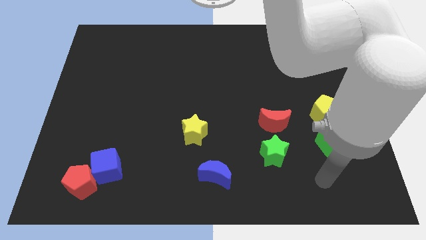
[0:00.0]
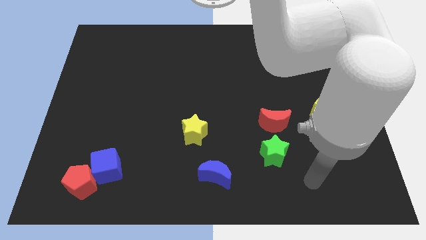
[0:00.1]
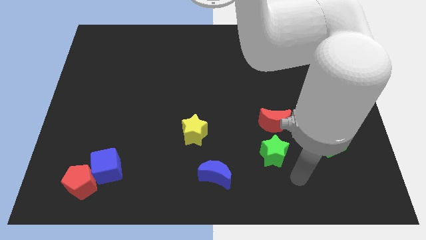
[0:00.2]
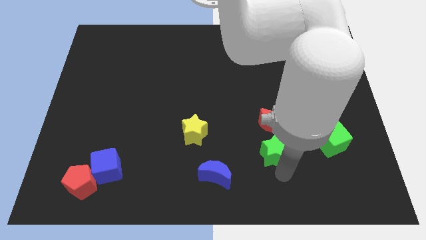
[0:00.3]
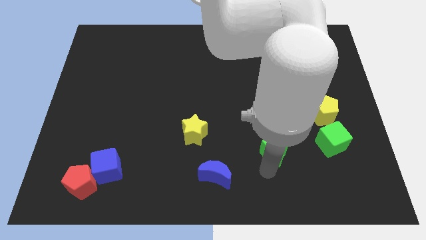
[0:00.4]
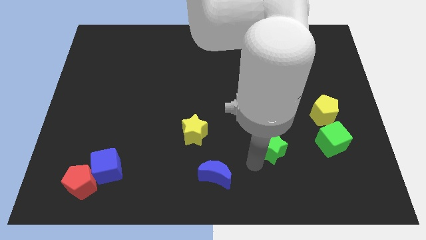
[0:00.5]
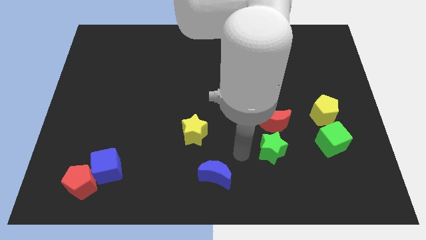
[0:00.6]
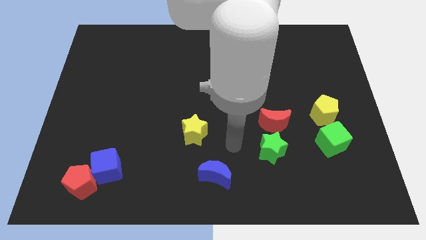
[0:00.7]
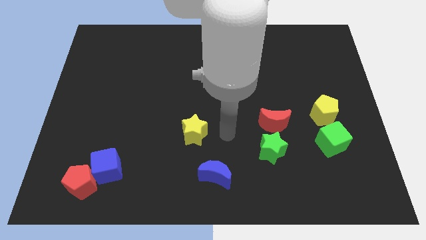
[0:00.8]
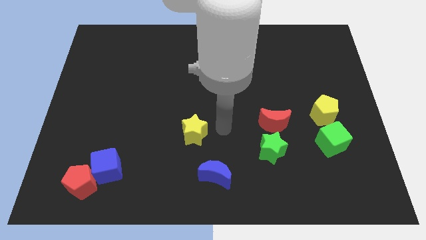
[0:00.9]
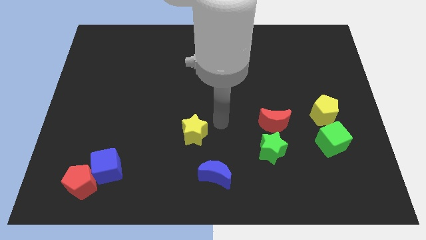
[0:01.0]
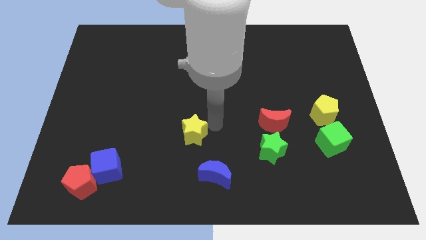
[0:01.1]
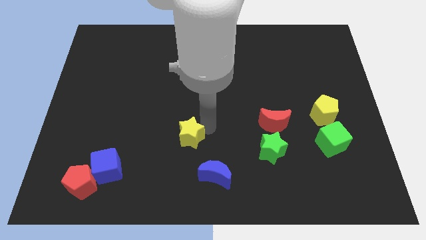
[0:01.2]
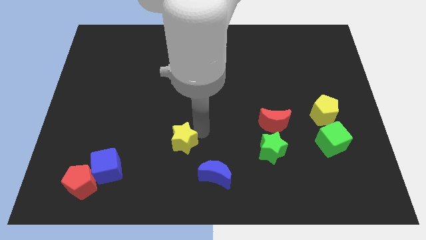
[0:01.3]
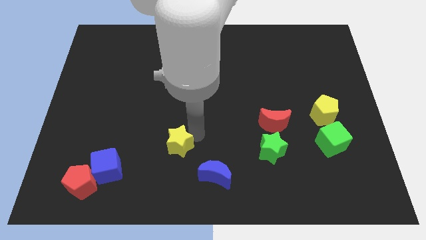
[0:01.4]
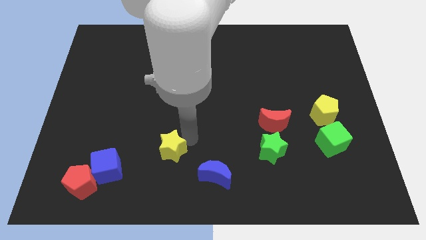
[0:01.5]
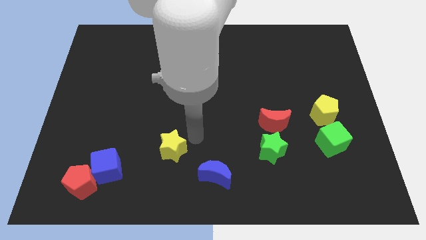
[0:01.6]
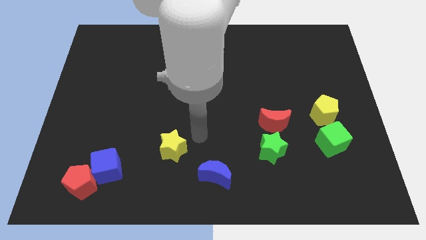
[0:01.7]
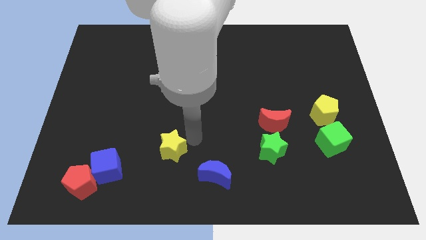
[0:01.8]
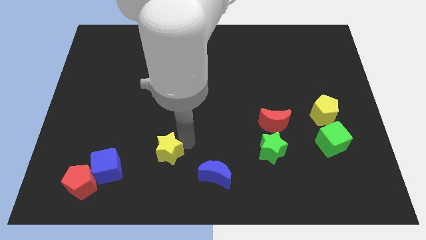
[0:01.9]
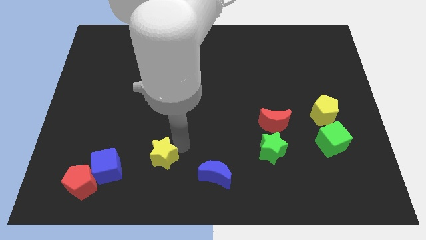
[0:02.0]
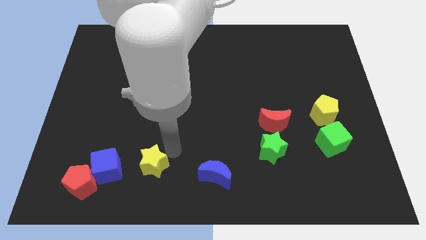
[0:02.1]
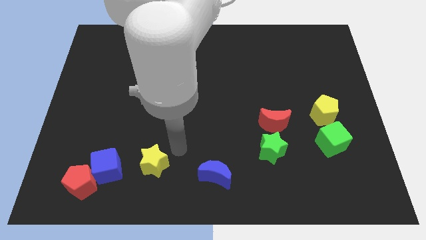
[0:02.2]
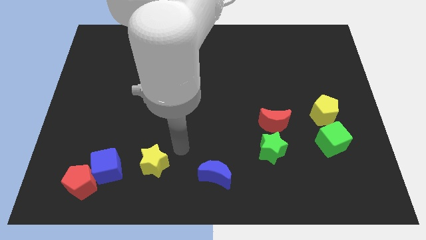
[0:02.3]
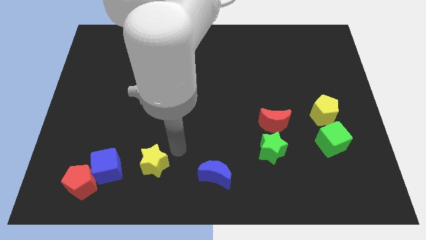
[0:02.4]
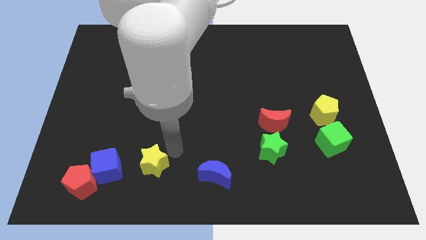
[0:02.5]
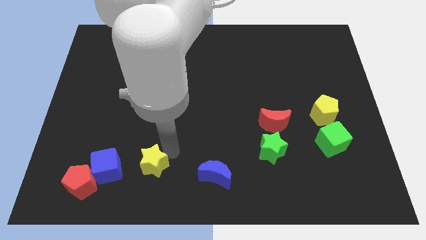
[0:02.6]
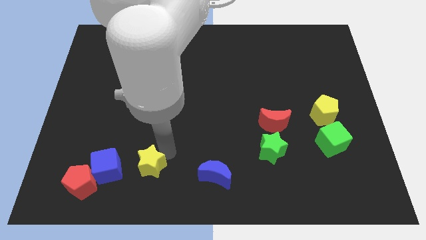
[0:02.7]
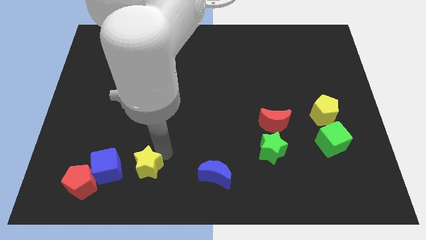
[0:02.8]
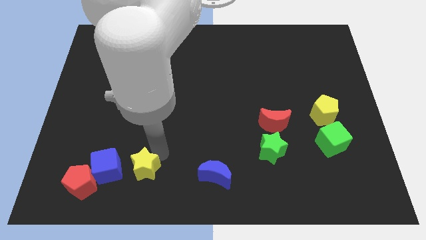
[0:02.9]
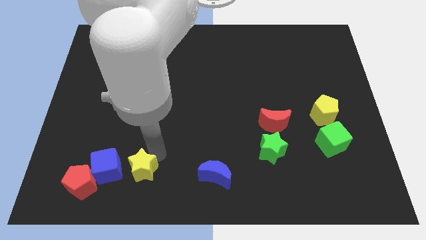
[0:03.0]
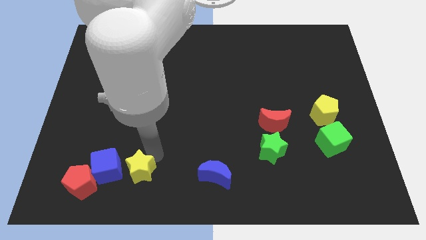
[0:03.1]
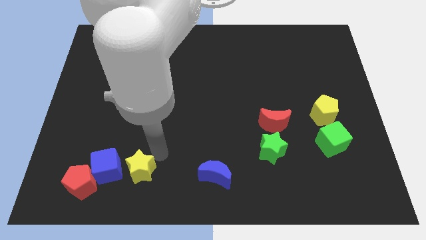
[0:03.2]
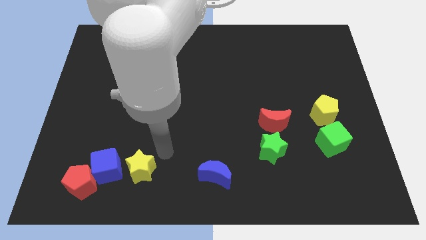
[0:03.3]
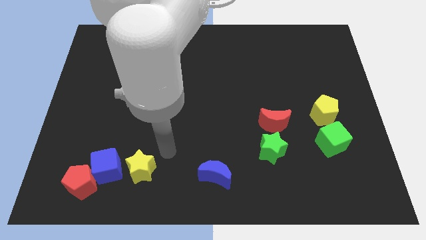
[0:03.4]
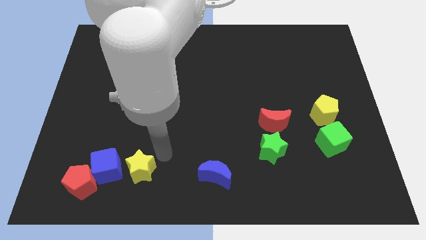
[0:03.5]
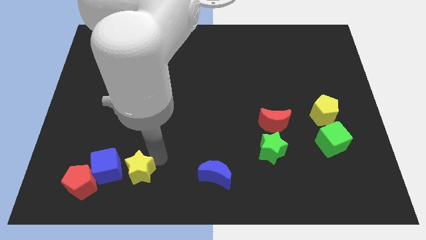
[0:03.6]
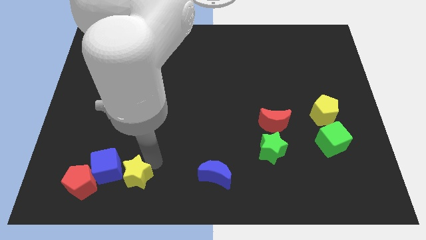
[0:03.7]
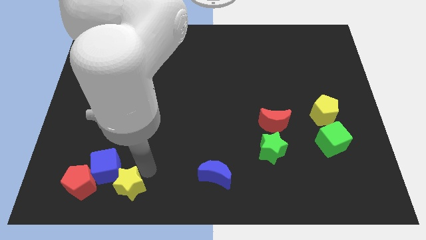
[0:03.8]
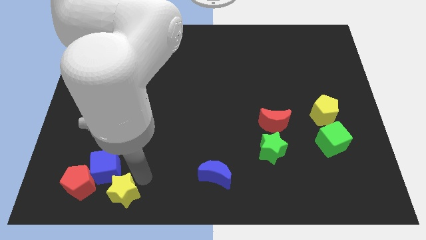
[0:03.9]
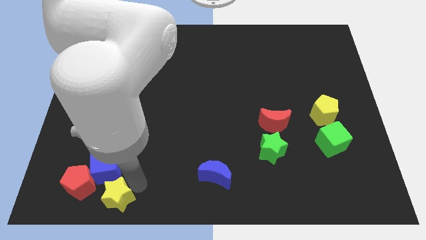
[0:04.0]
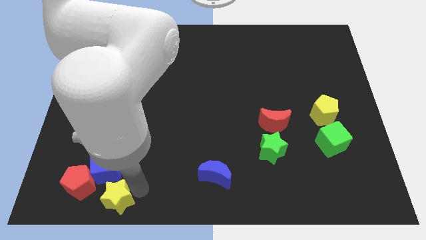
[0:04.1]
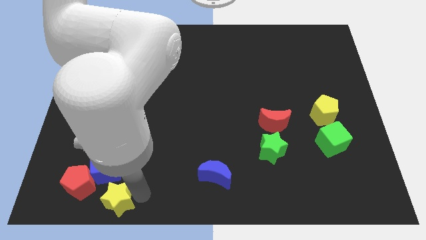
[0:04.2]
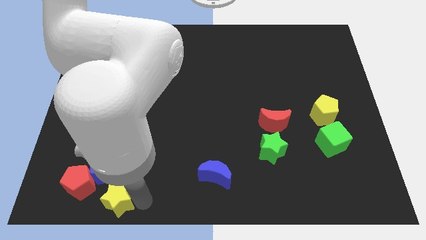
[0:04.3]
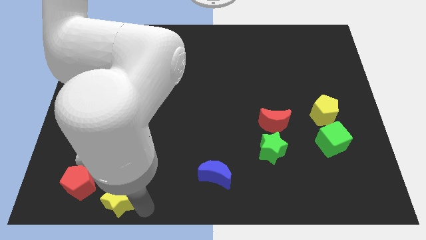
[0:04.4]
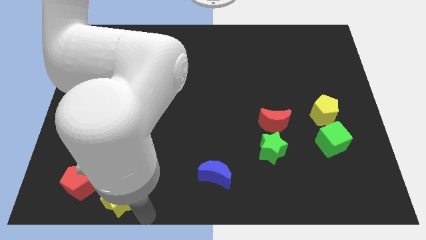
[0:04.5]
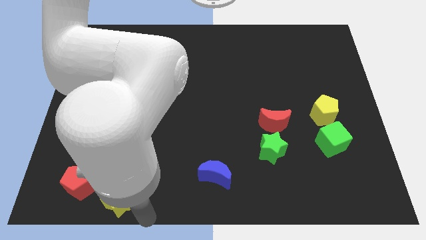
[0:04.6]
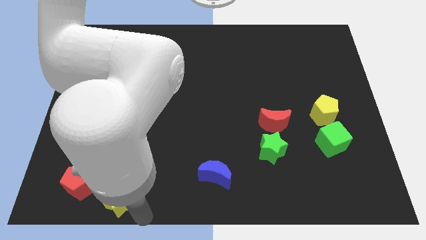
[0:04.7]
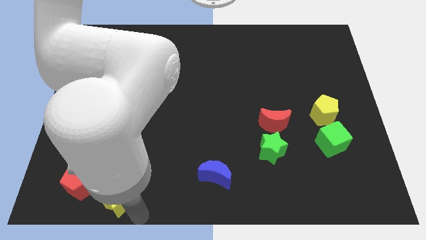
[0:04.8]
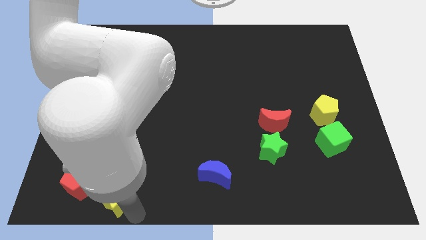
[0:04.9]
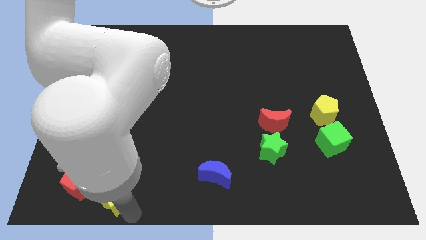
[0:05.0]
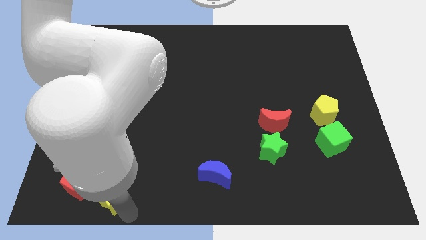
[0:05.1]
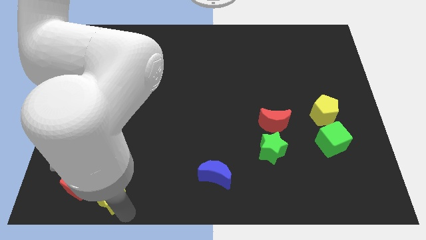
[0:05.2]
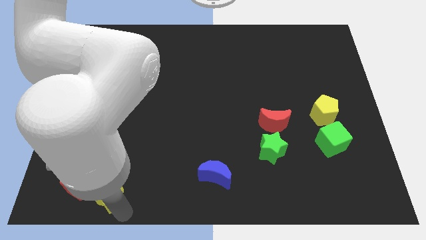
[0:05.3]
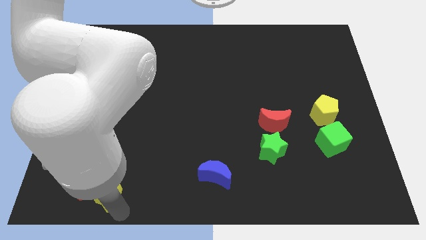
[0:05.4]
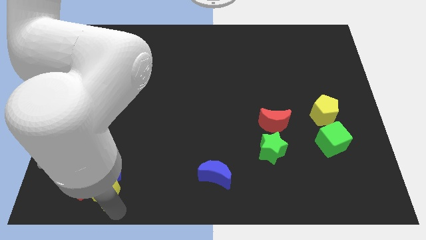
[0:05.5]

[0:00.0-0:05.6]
move the yellow star next to the red pentagon

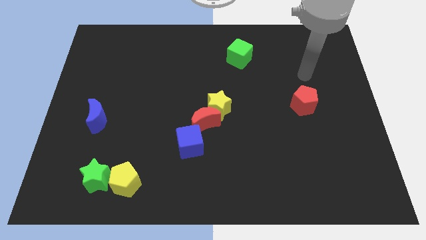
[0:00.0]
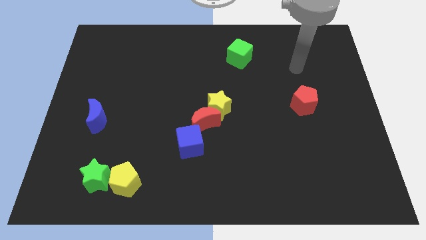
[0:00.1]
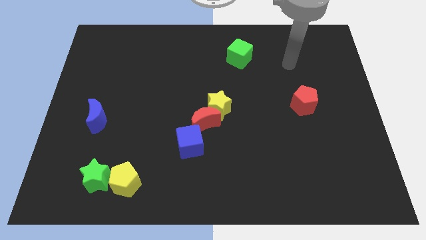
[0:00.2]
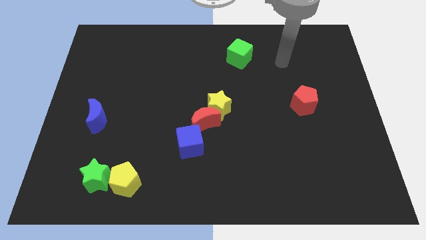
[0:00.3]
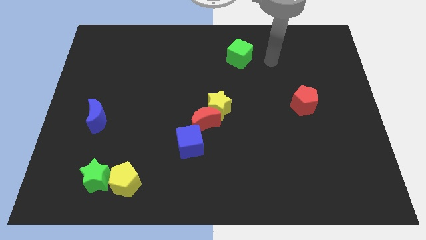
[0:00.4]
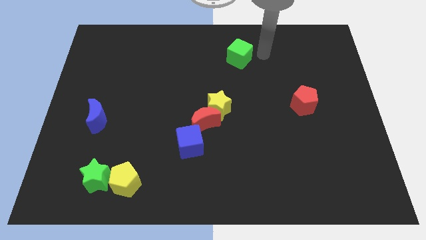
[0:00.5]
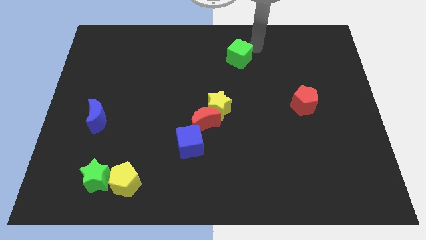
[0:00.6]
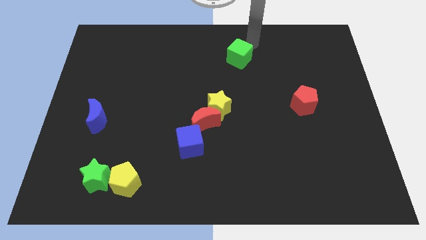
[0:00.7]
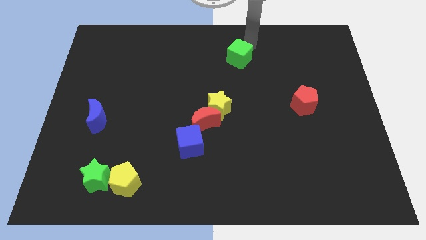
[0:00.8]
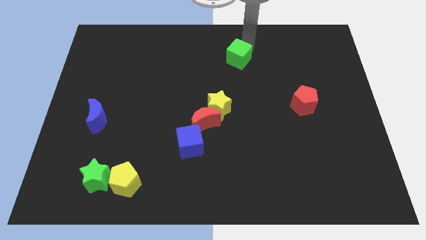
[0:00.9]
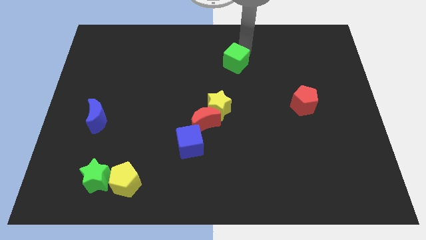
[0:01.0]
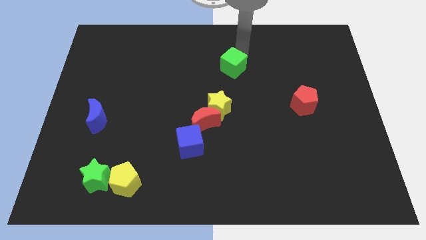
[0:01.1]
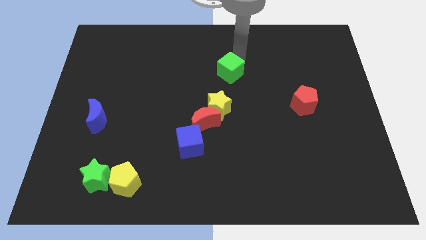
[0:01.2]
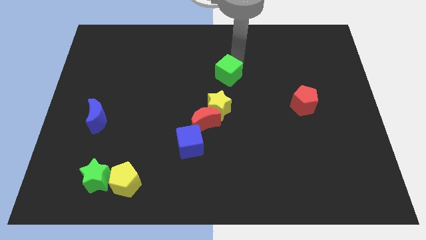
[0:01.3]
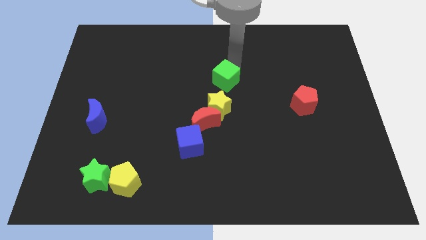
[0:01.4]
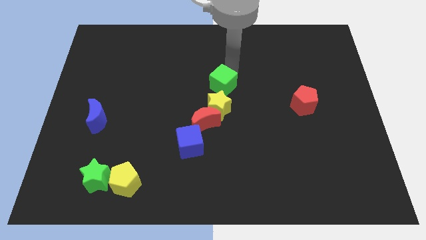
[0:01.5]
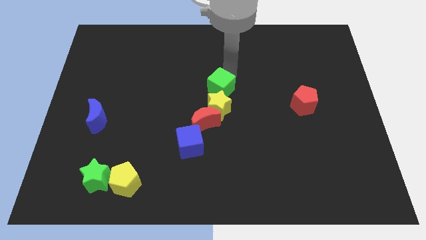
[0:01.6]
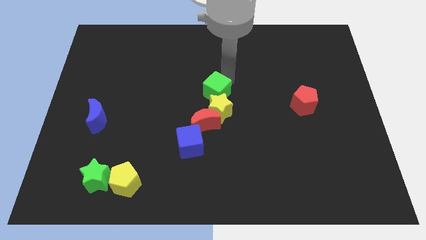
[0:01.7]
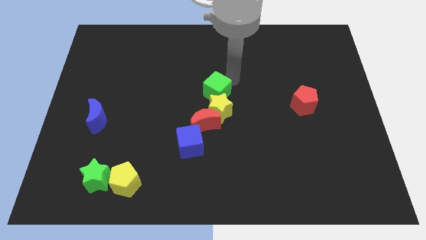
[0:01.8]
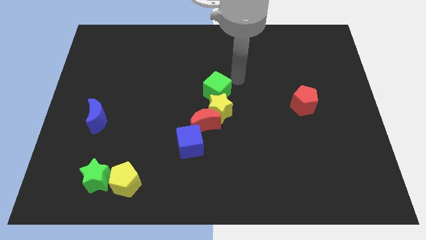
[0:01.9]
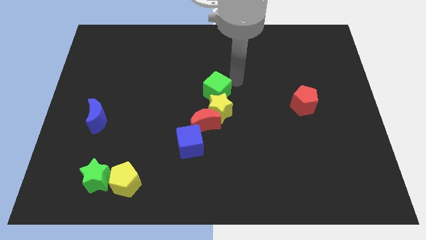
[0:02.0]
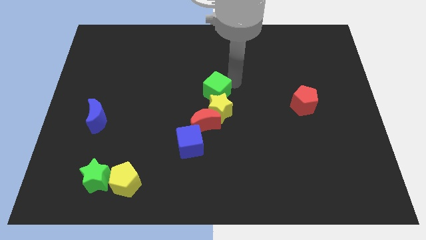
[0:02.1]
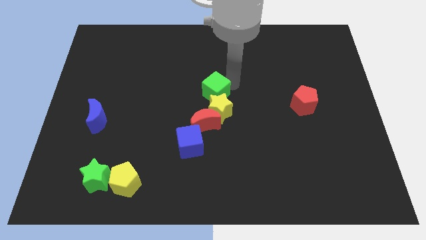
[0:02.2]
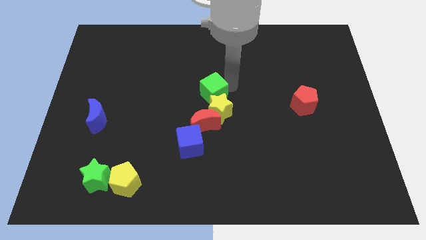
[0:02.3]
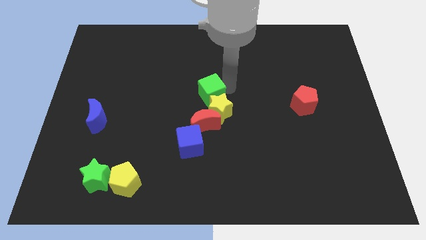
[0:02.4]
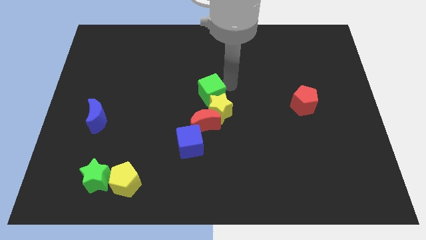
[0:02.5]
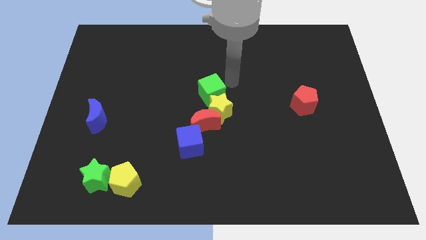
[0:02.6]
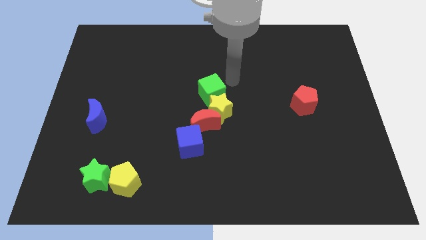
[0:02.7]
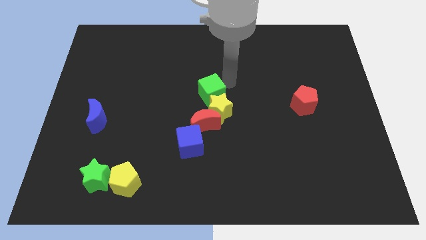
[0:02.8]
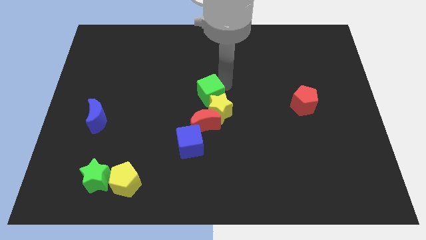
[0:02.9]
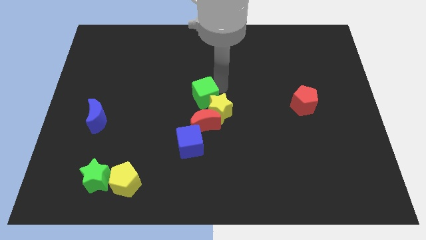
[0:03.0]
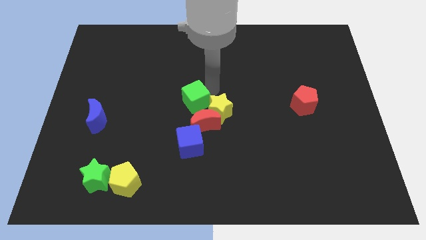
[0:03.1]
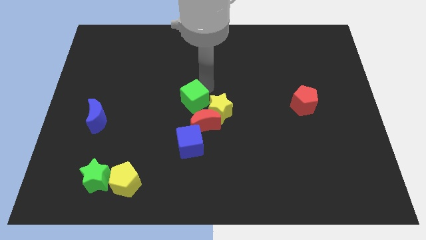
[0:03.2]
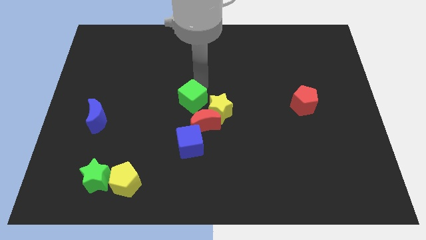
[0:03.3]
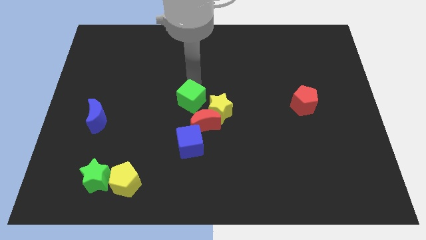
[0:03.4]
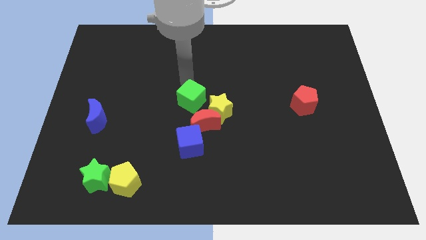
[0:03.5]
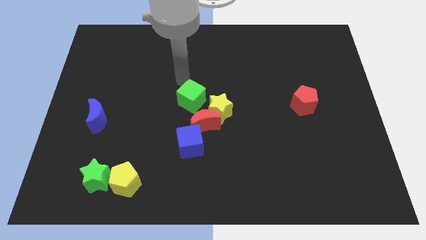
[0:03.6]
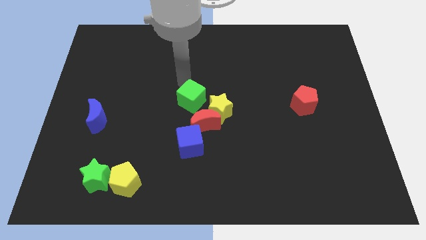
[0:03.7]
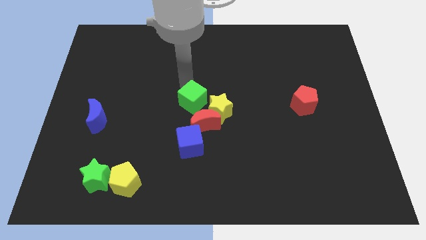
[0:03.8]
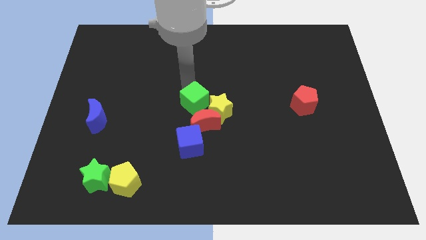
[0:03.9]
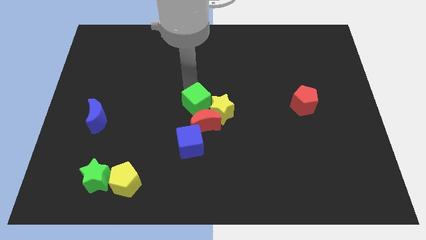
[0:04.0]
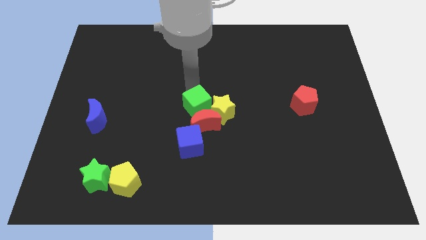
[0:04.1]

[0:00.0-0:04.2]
push the green cube next to the red moon
